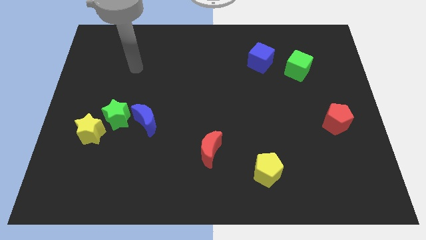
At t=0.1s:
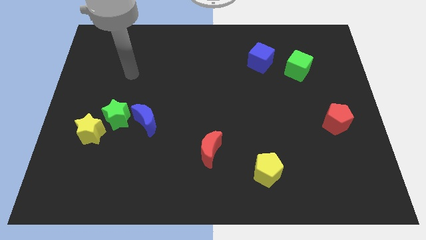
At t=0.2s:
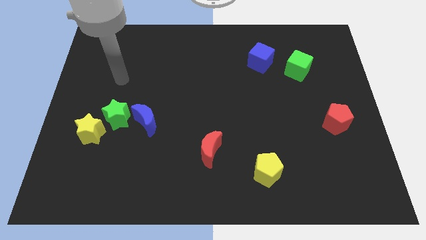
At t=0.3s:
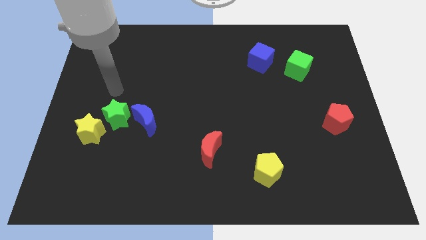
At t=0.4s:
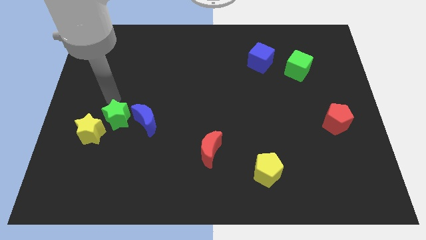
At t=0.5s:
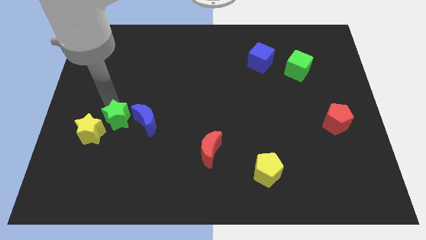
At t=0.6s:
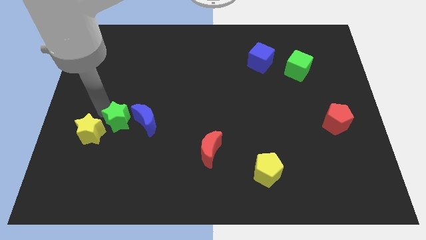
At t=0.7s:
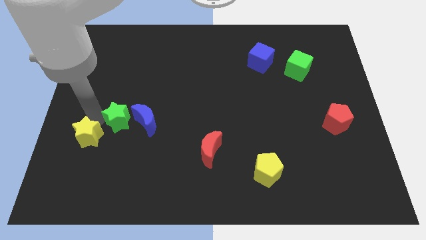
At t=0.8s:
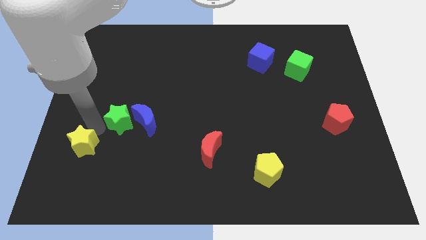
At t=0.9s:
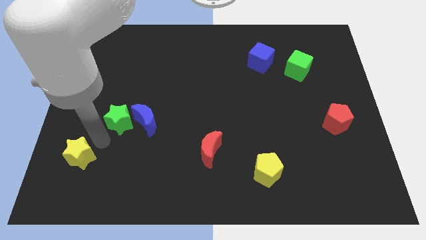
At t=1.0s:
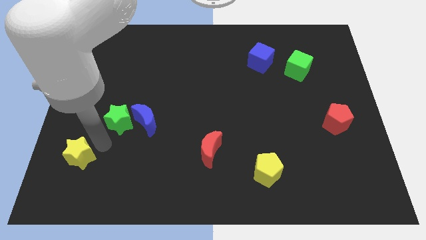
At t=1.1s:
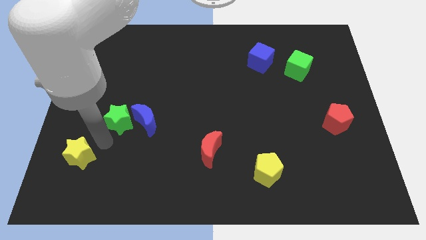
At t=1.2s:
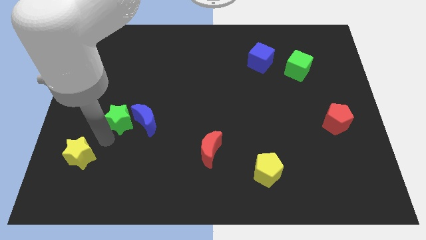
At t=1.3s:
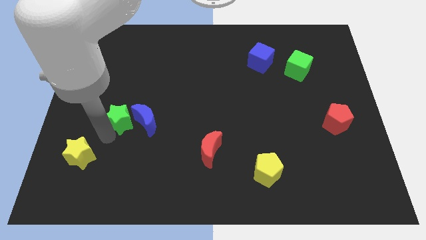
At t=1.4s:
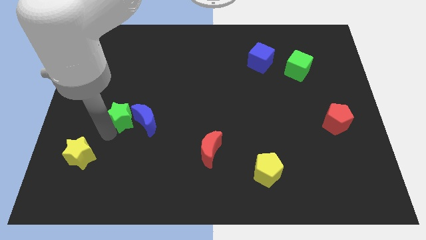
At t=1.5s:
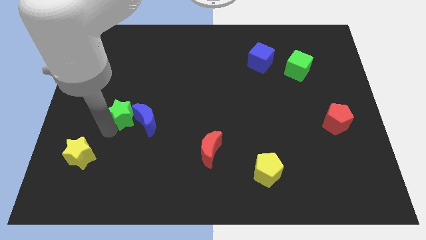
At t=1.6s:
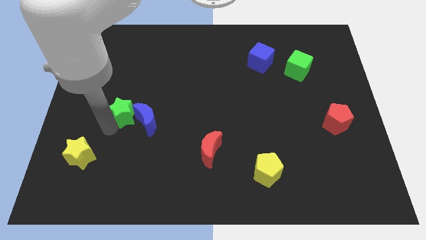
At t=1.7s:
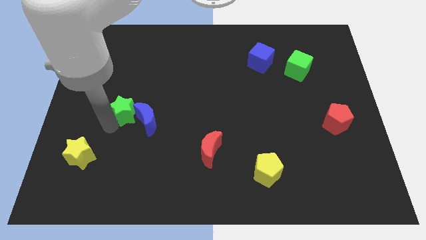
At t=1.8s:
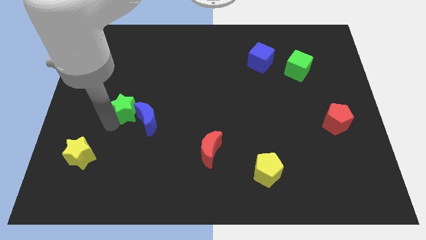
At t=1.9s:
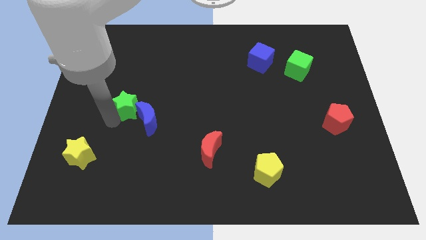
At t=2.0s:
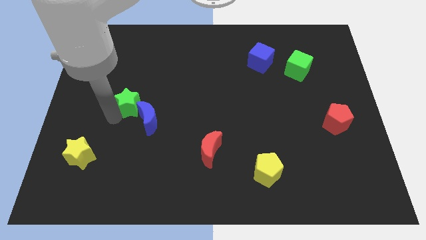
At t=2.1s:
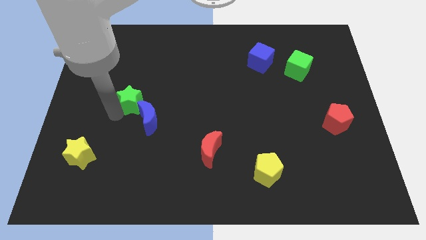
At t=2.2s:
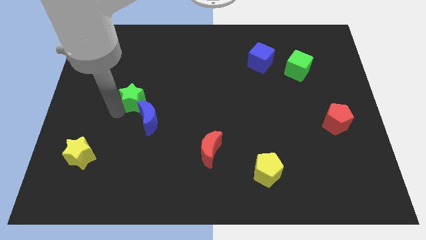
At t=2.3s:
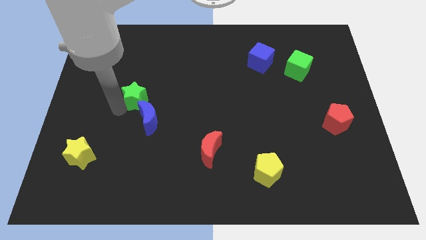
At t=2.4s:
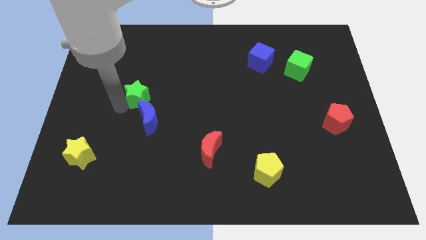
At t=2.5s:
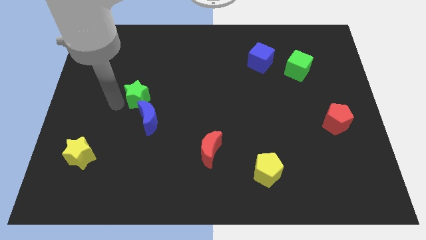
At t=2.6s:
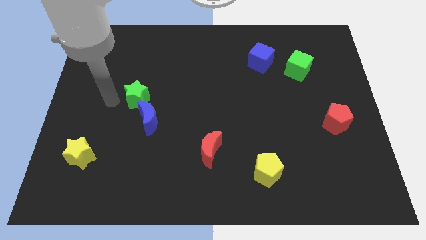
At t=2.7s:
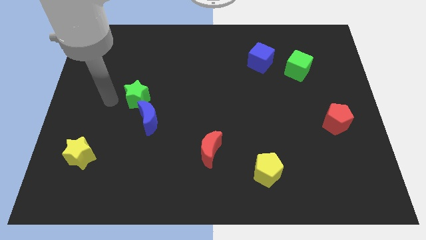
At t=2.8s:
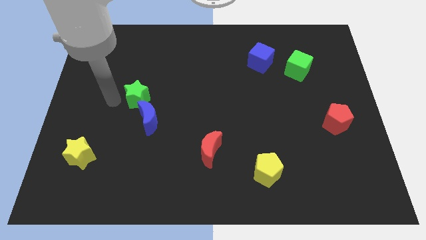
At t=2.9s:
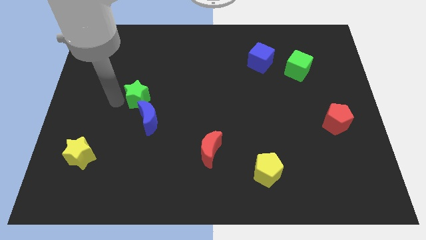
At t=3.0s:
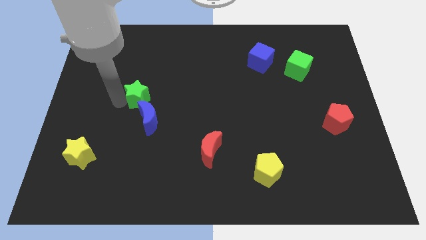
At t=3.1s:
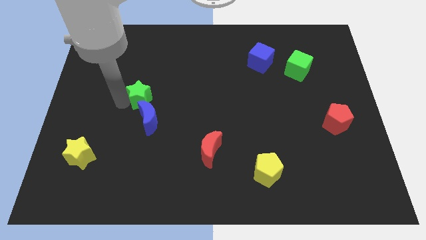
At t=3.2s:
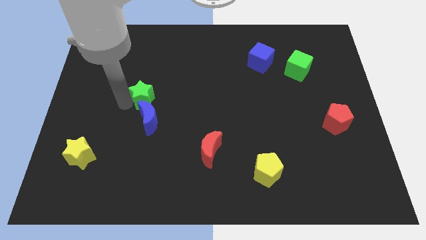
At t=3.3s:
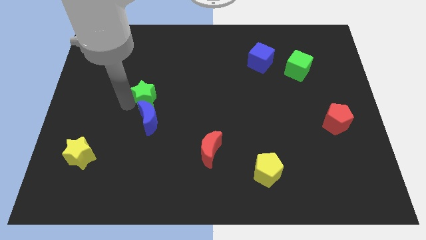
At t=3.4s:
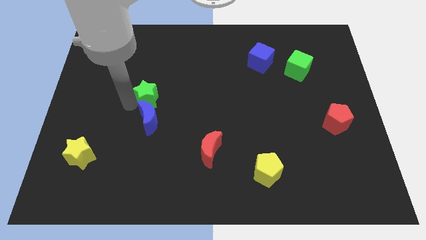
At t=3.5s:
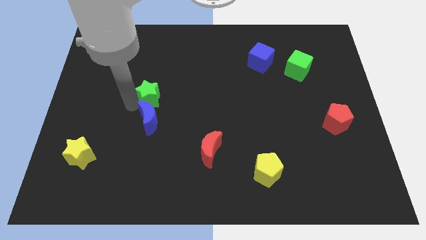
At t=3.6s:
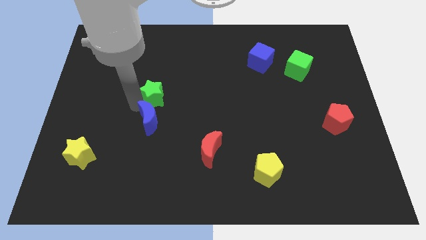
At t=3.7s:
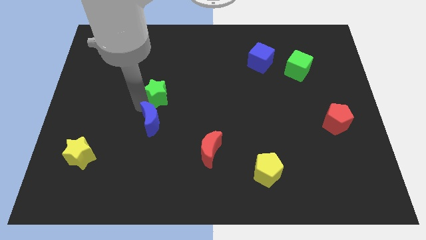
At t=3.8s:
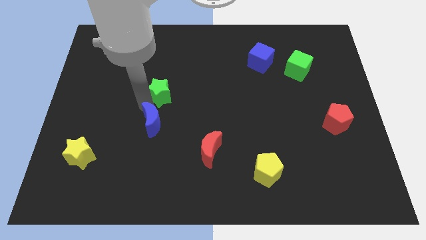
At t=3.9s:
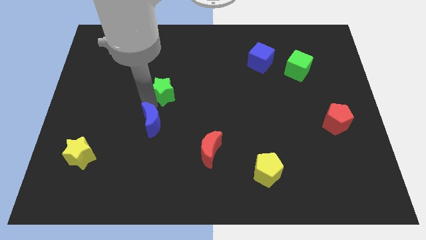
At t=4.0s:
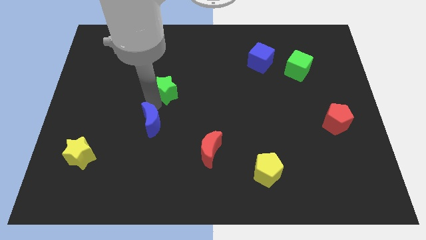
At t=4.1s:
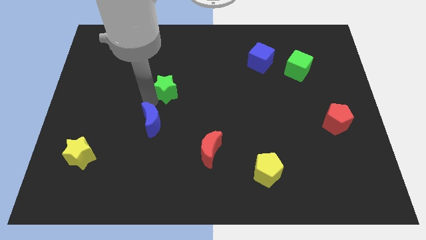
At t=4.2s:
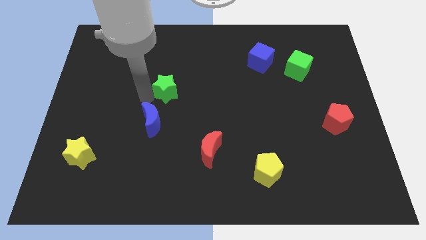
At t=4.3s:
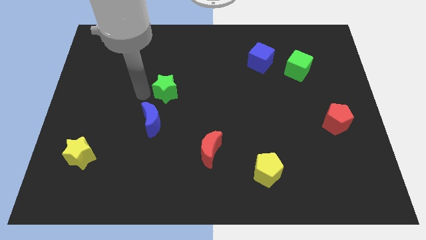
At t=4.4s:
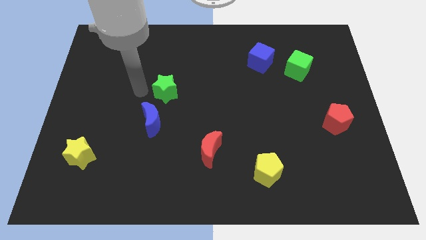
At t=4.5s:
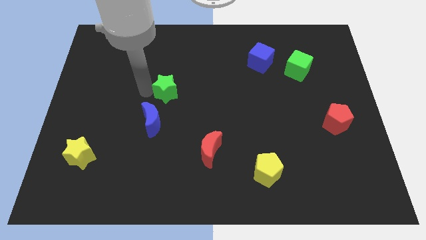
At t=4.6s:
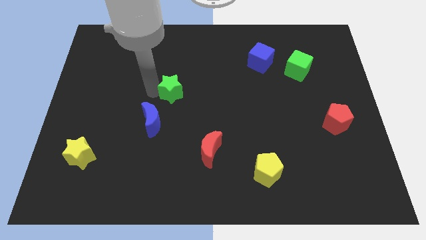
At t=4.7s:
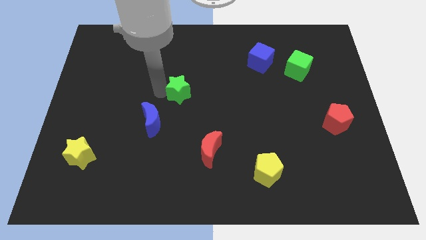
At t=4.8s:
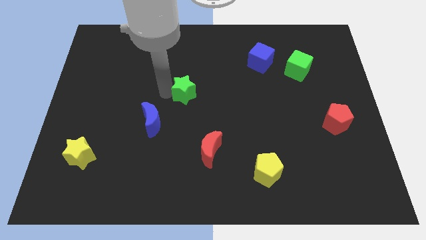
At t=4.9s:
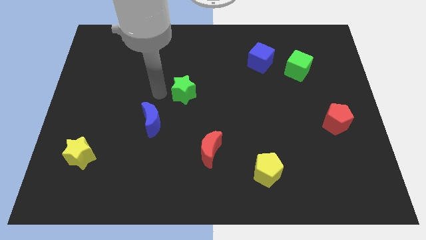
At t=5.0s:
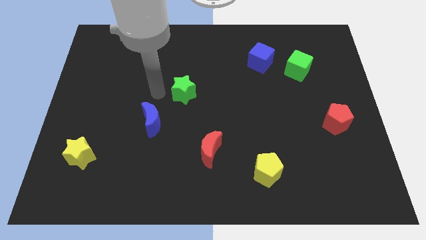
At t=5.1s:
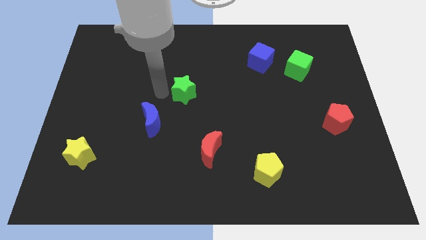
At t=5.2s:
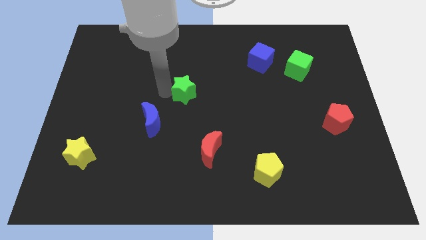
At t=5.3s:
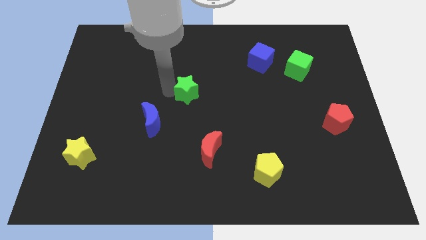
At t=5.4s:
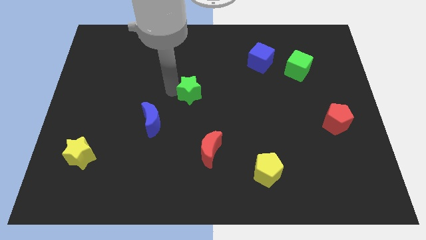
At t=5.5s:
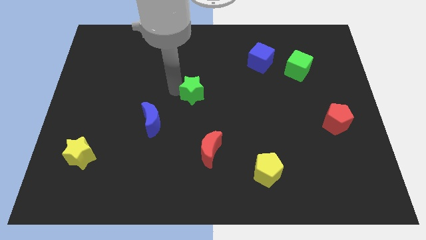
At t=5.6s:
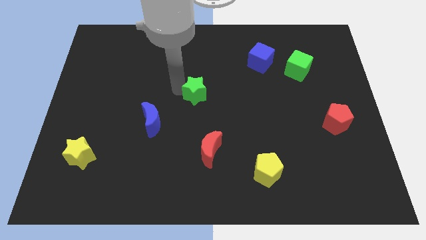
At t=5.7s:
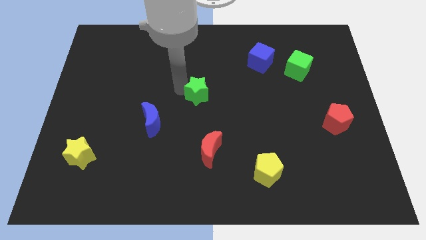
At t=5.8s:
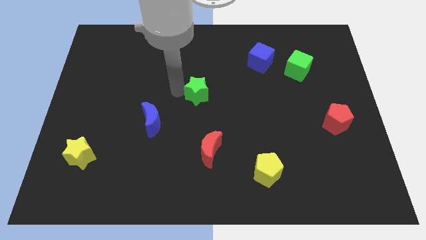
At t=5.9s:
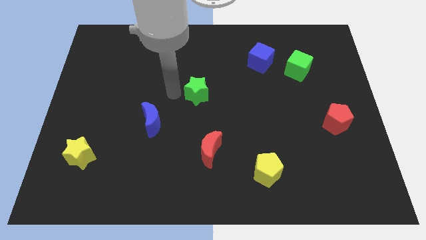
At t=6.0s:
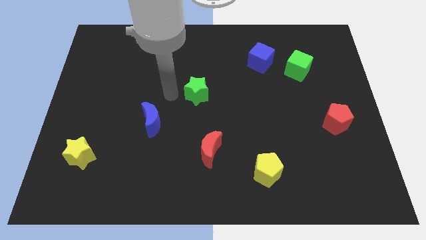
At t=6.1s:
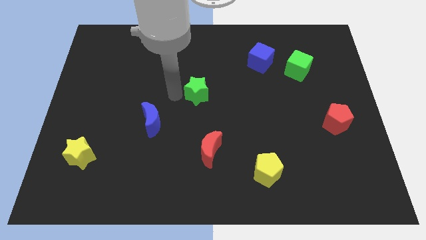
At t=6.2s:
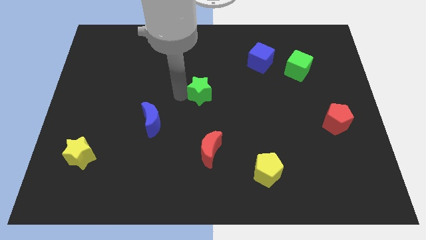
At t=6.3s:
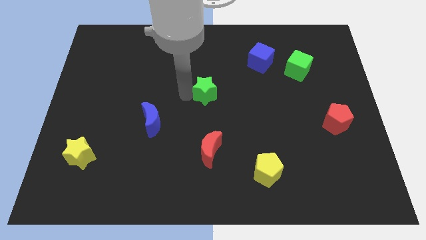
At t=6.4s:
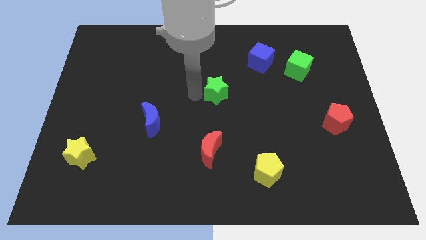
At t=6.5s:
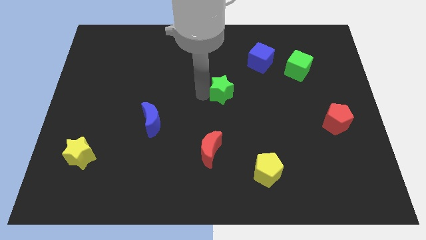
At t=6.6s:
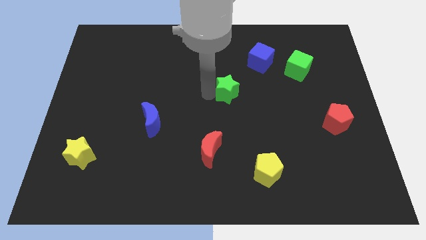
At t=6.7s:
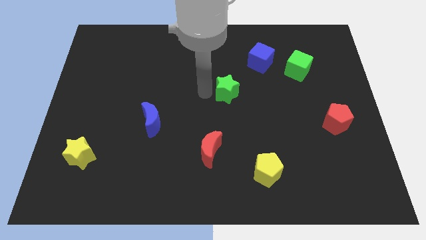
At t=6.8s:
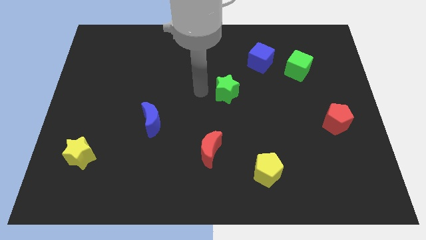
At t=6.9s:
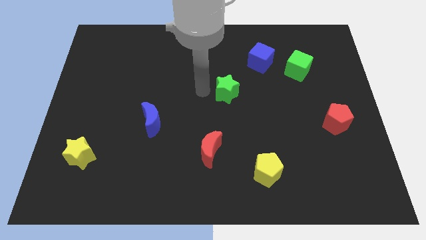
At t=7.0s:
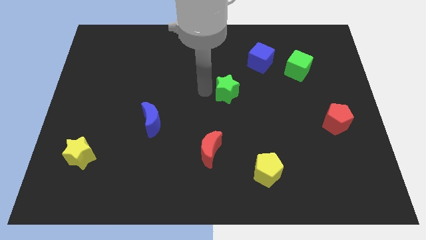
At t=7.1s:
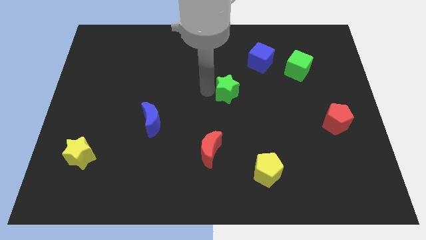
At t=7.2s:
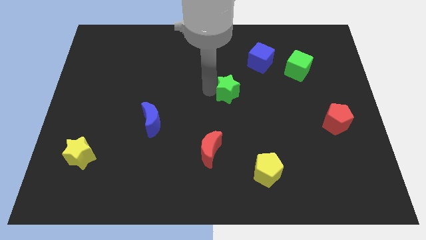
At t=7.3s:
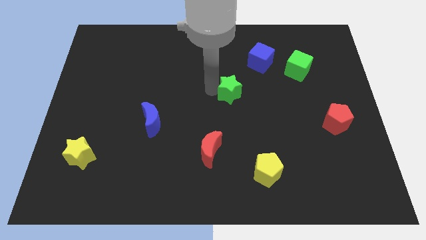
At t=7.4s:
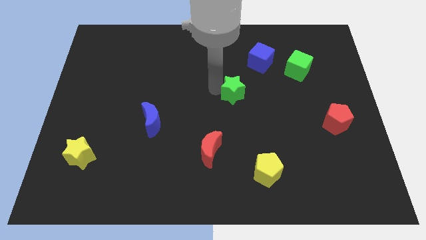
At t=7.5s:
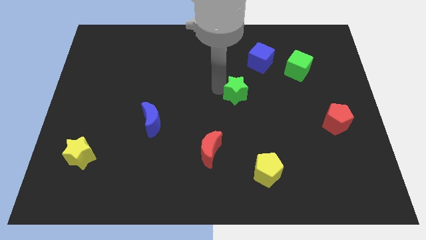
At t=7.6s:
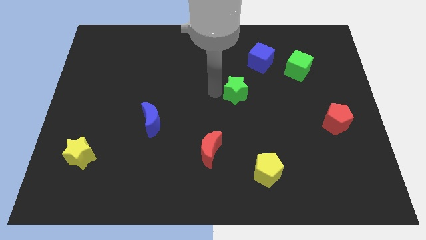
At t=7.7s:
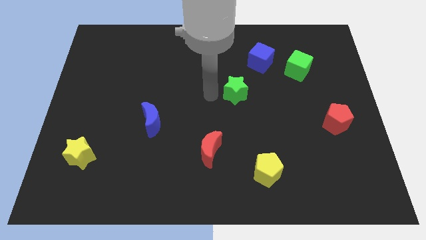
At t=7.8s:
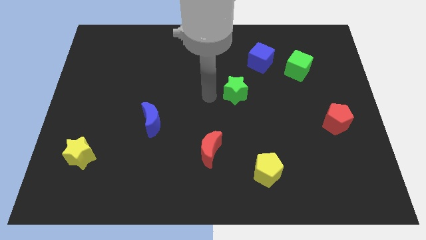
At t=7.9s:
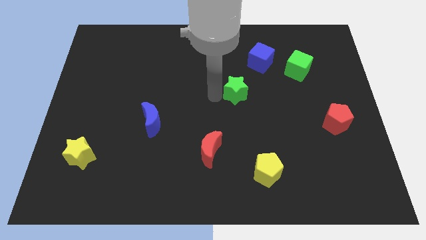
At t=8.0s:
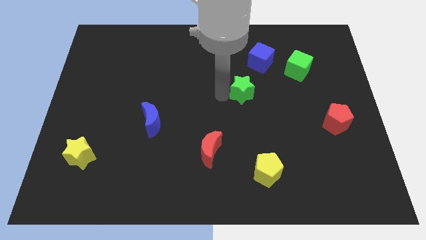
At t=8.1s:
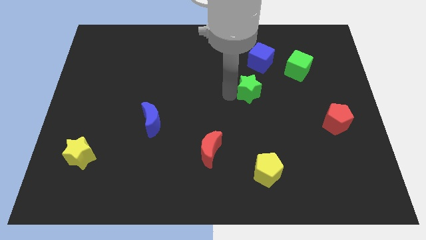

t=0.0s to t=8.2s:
slide the green star to the bottom of the blue cube
